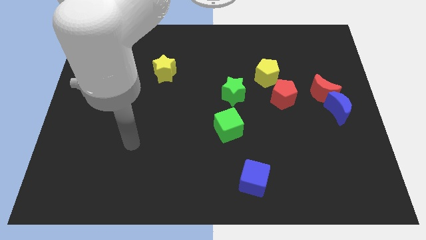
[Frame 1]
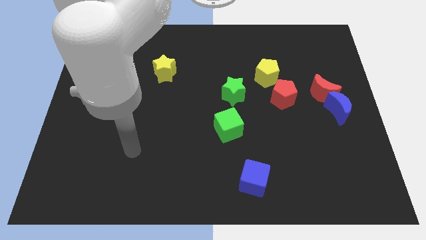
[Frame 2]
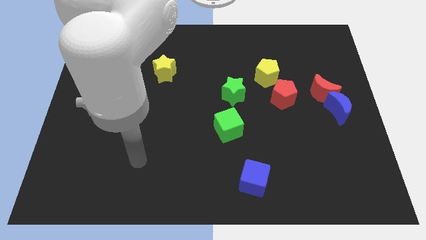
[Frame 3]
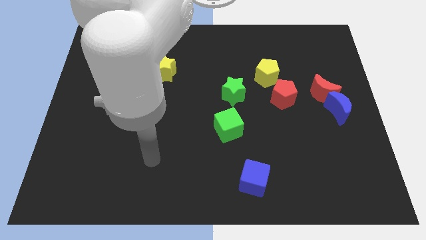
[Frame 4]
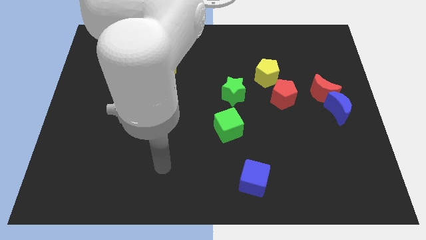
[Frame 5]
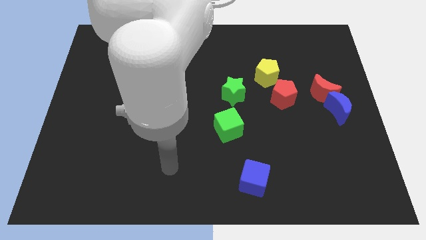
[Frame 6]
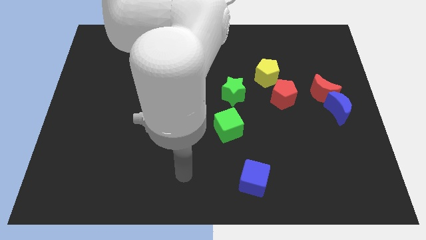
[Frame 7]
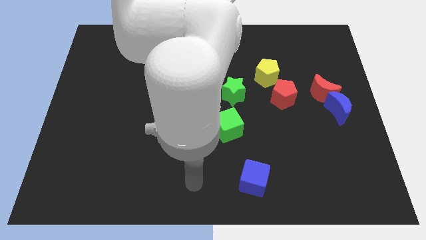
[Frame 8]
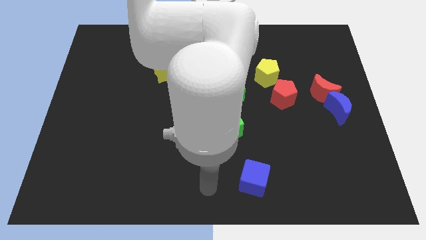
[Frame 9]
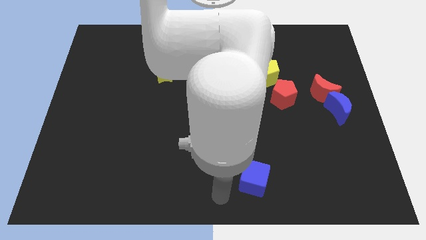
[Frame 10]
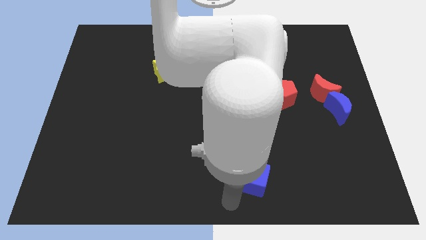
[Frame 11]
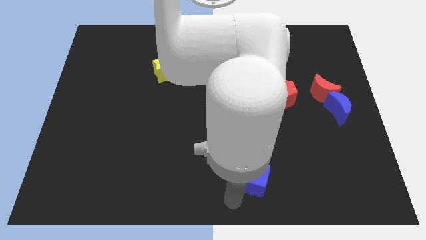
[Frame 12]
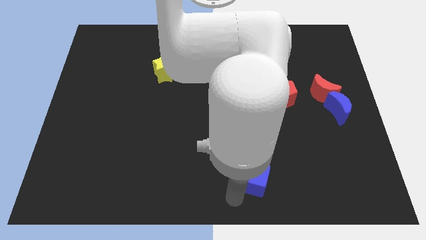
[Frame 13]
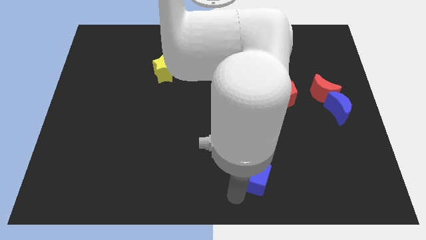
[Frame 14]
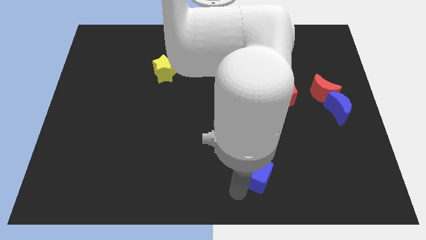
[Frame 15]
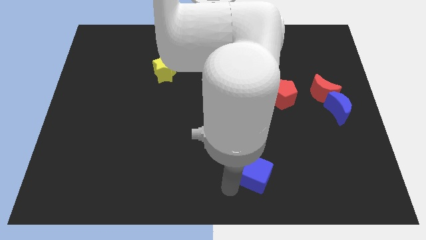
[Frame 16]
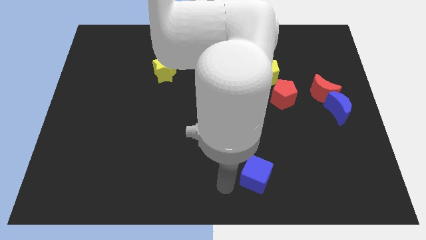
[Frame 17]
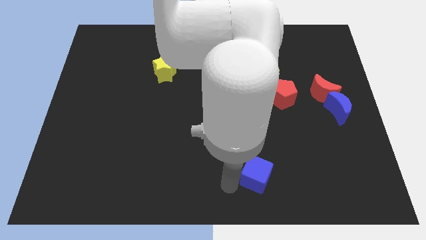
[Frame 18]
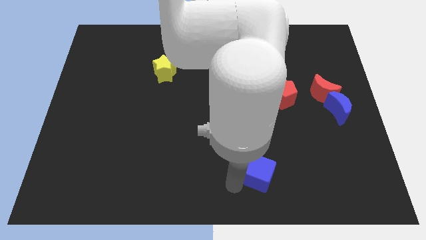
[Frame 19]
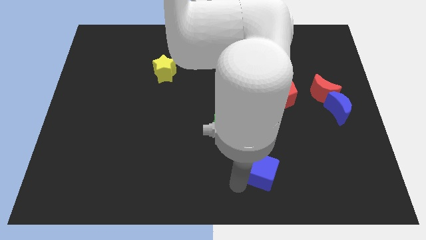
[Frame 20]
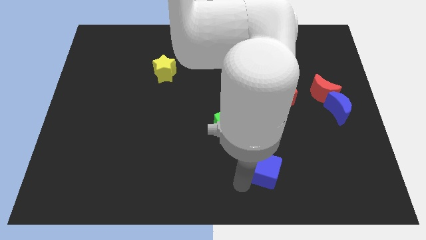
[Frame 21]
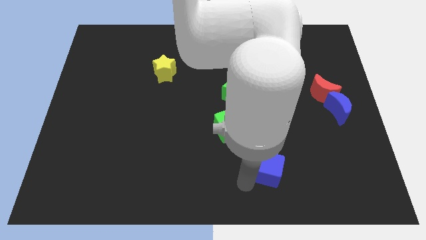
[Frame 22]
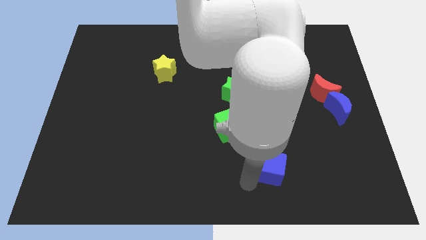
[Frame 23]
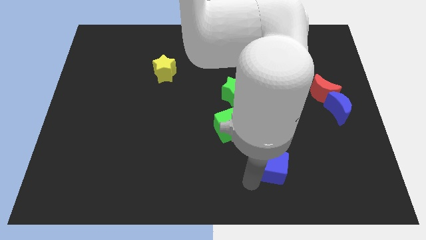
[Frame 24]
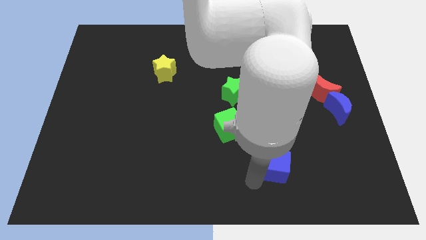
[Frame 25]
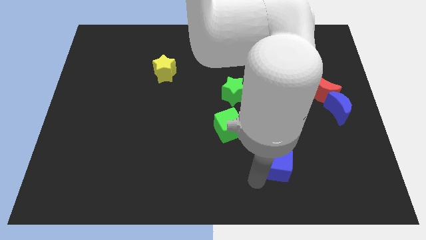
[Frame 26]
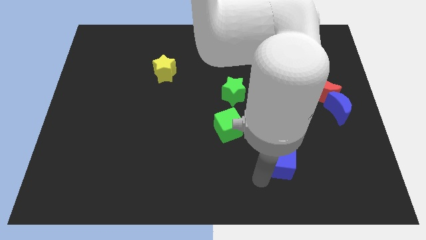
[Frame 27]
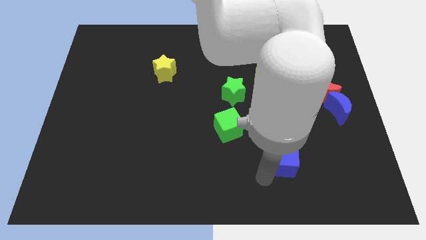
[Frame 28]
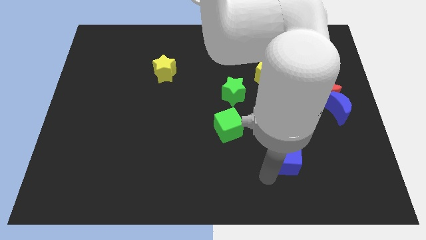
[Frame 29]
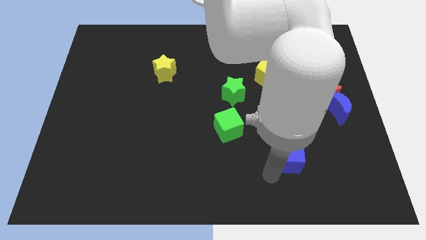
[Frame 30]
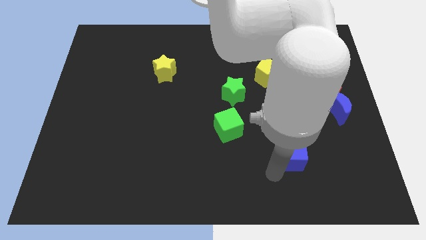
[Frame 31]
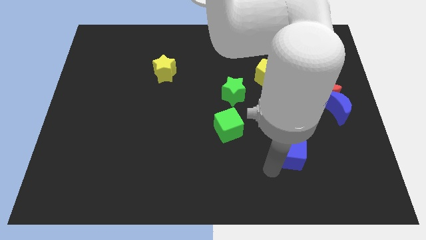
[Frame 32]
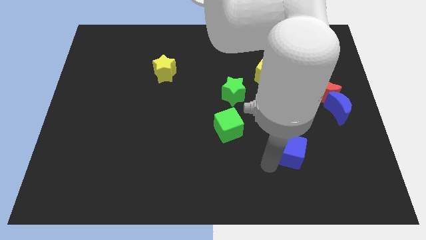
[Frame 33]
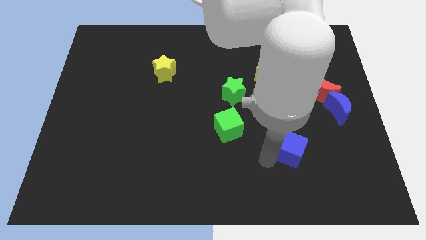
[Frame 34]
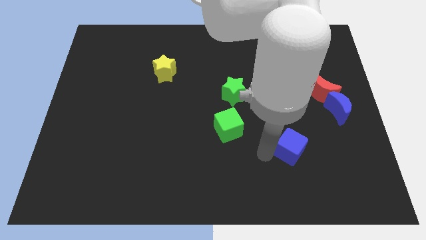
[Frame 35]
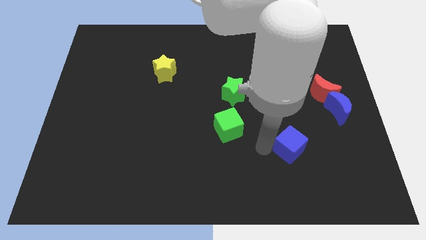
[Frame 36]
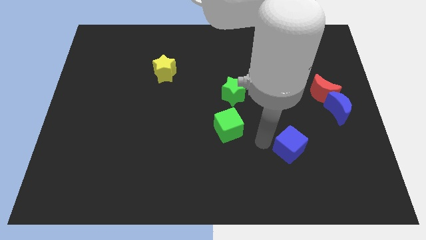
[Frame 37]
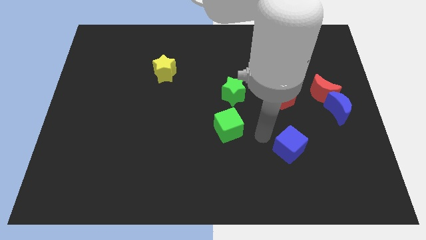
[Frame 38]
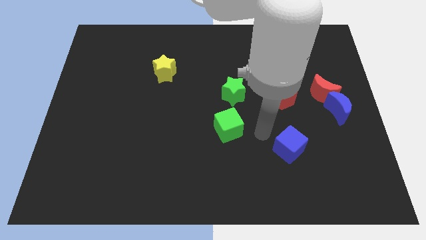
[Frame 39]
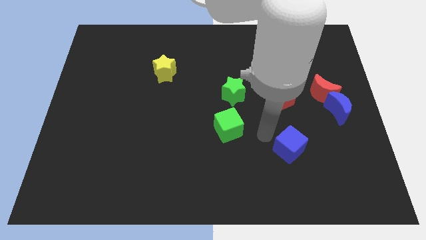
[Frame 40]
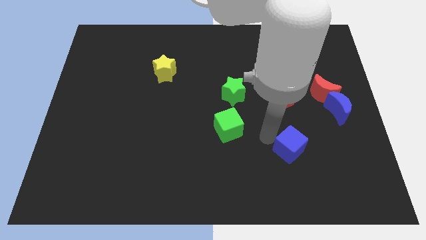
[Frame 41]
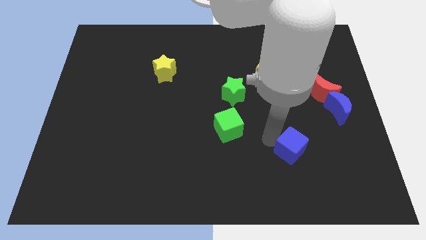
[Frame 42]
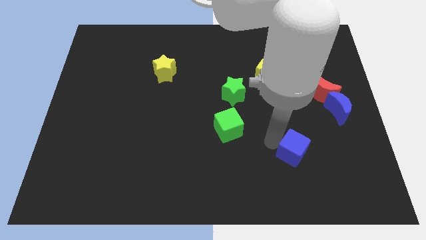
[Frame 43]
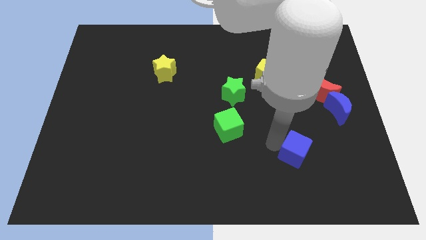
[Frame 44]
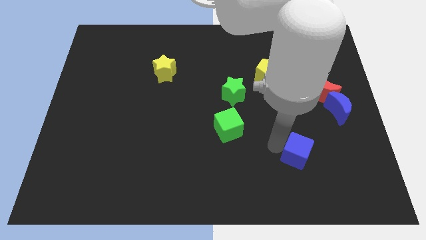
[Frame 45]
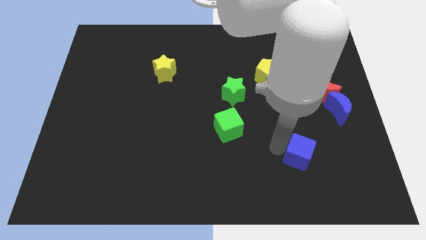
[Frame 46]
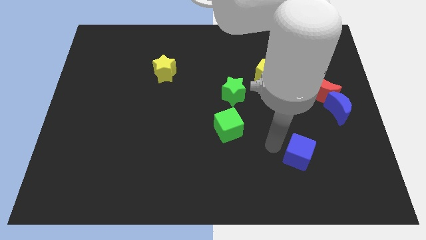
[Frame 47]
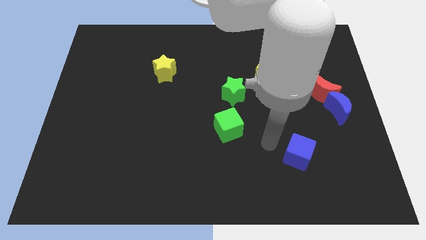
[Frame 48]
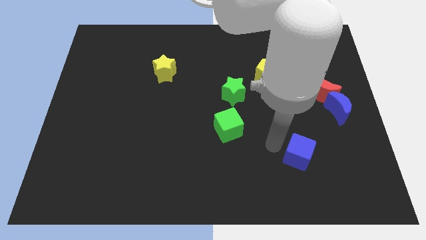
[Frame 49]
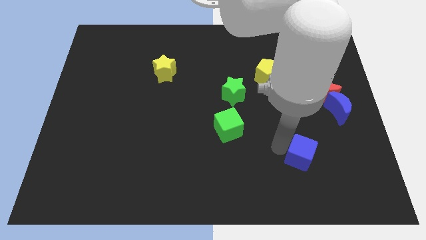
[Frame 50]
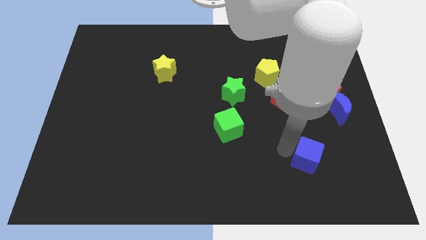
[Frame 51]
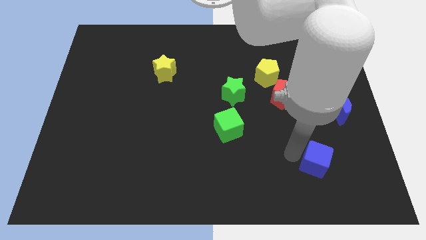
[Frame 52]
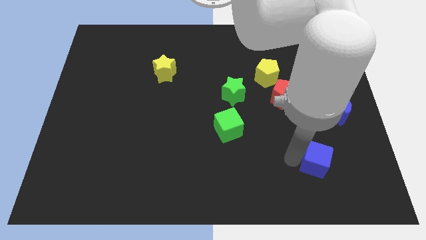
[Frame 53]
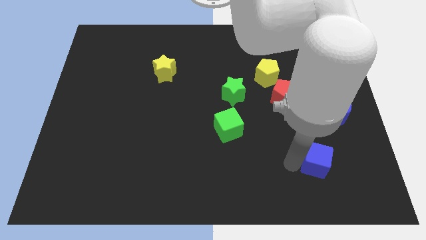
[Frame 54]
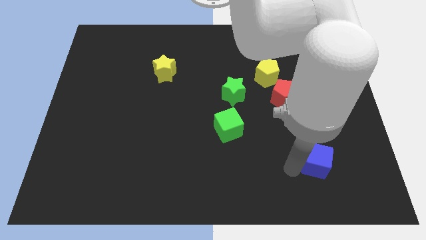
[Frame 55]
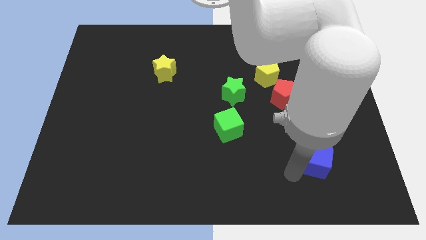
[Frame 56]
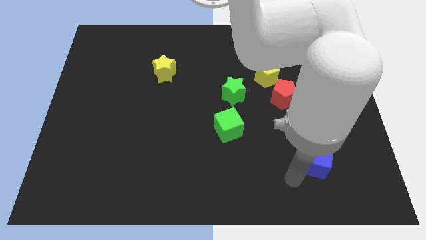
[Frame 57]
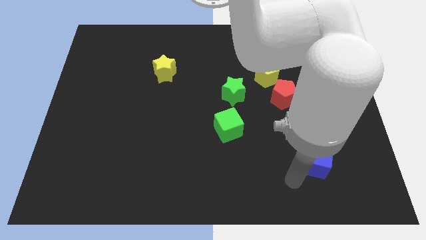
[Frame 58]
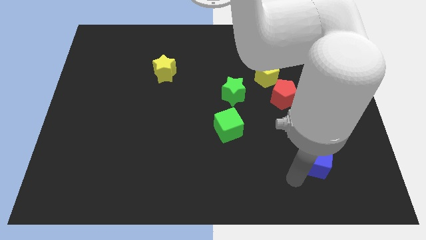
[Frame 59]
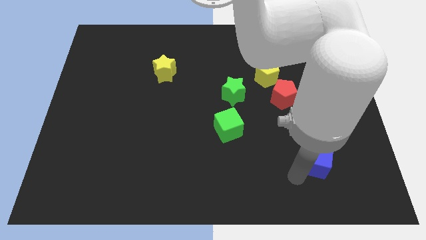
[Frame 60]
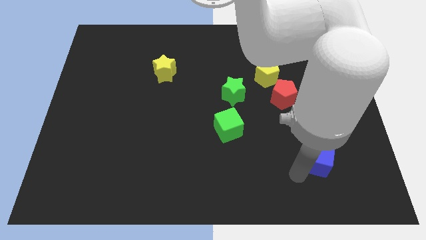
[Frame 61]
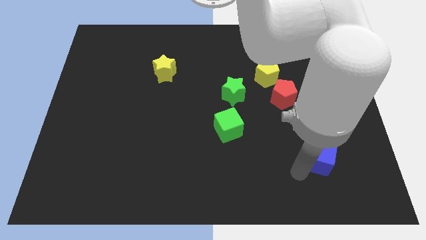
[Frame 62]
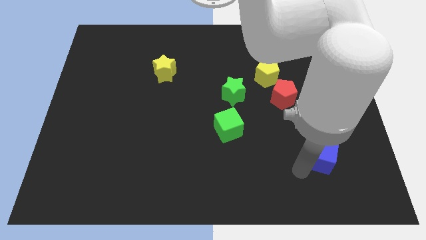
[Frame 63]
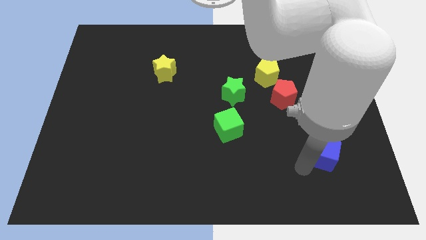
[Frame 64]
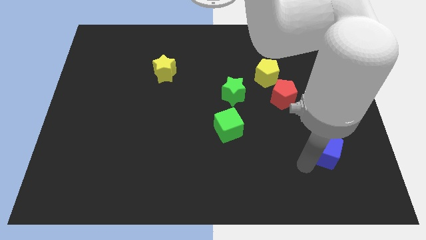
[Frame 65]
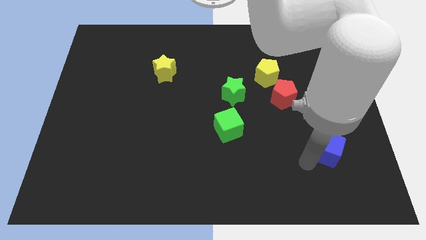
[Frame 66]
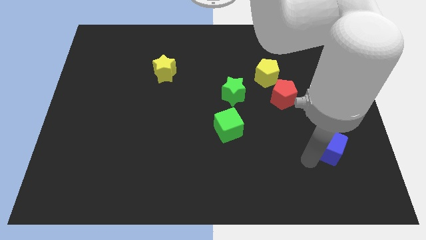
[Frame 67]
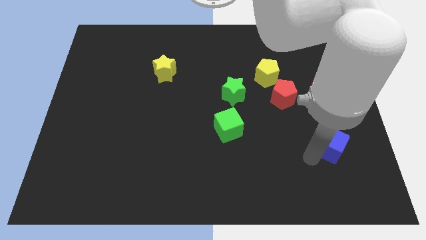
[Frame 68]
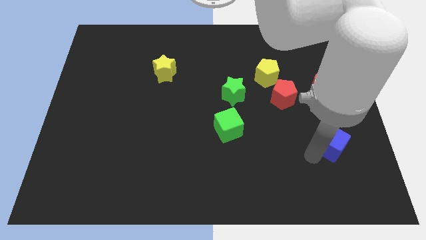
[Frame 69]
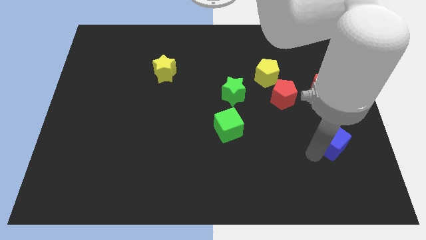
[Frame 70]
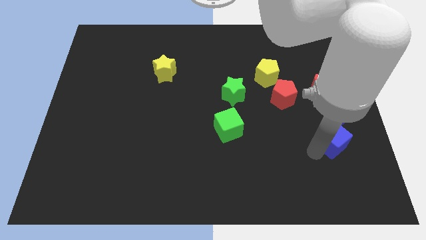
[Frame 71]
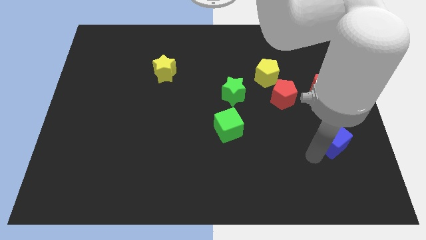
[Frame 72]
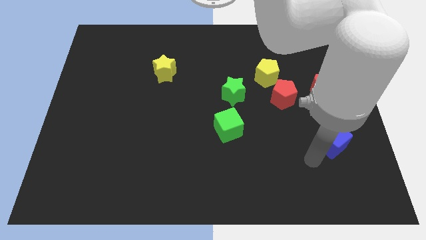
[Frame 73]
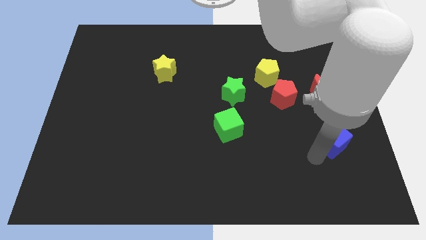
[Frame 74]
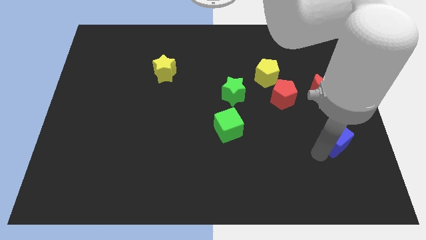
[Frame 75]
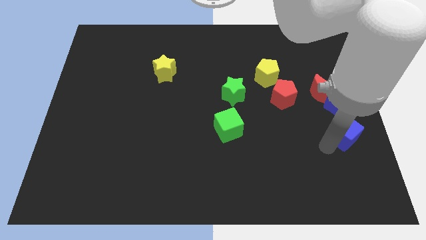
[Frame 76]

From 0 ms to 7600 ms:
move the blue cube to the right side of the board
